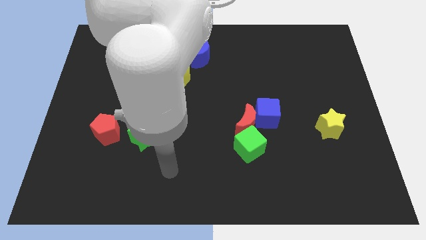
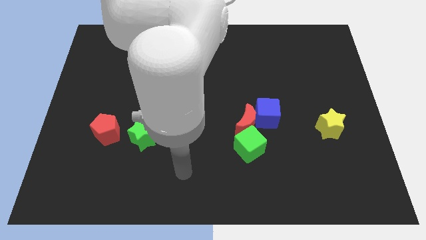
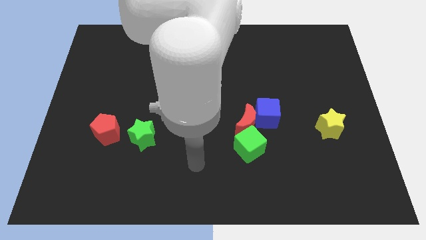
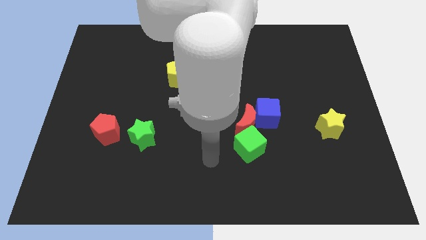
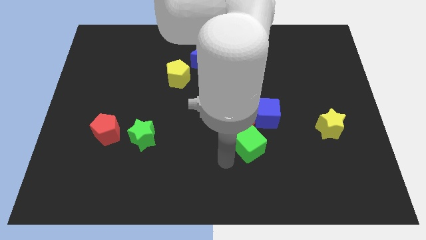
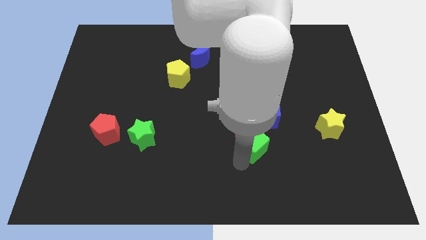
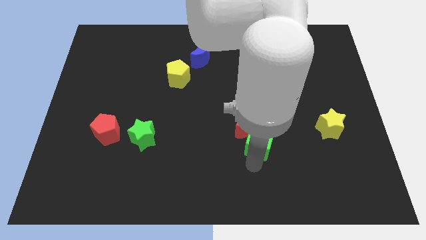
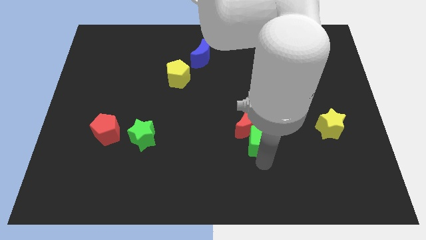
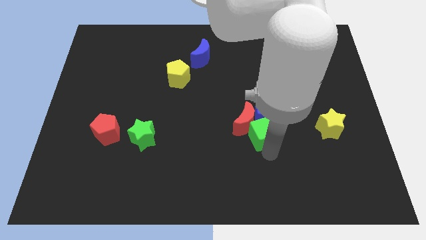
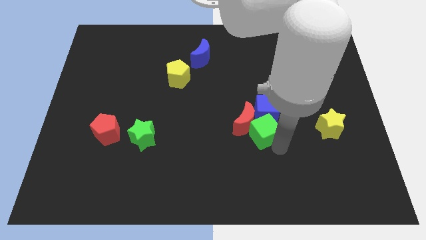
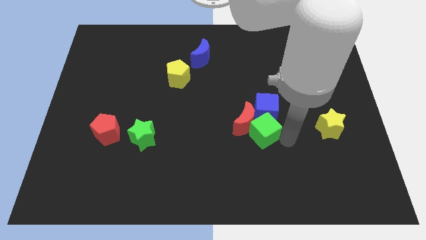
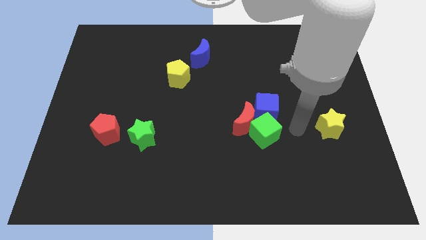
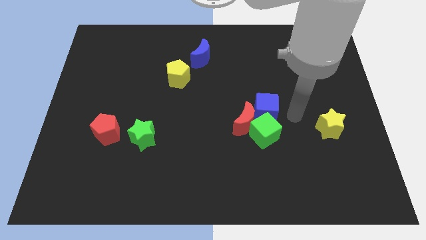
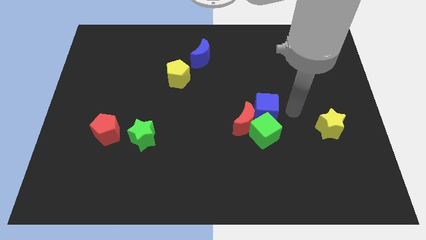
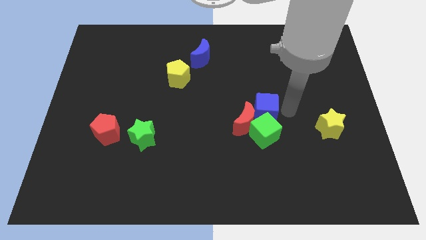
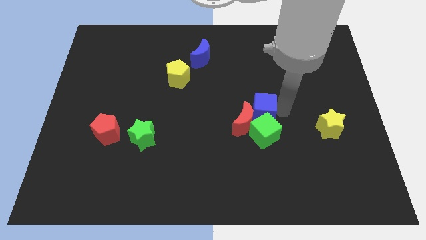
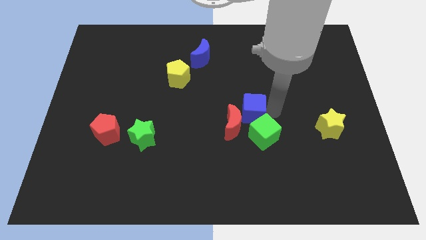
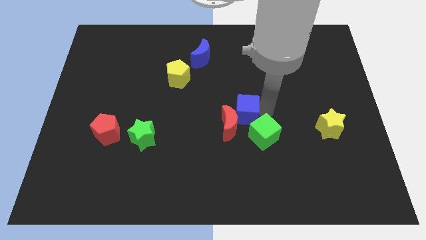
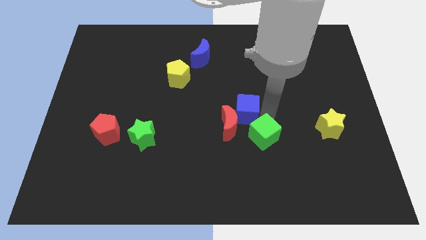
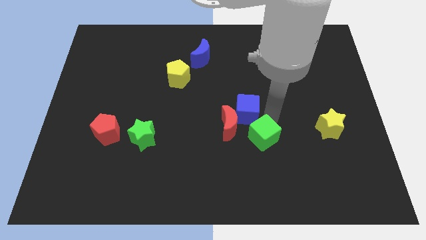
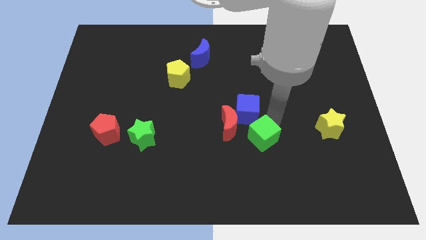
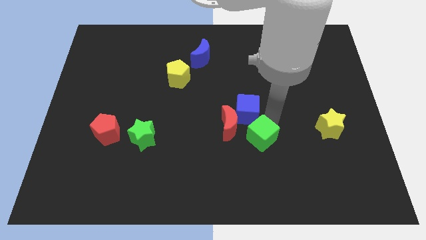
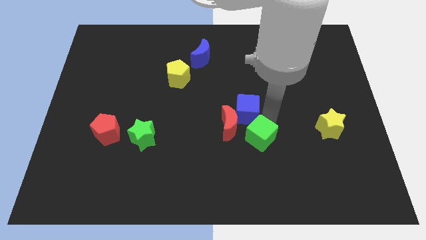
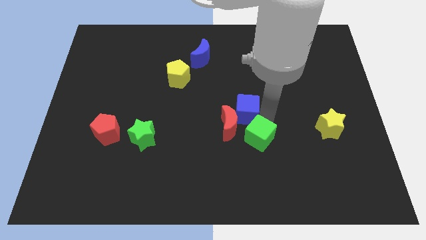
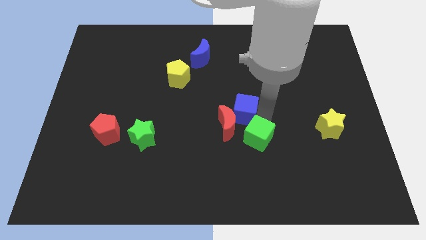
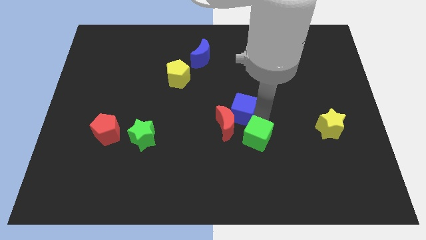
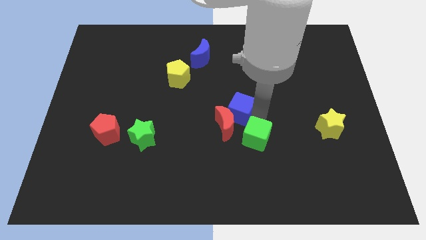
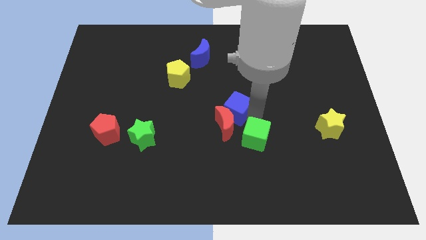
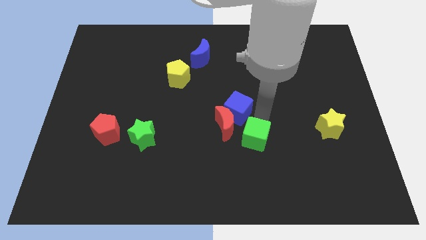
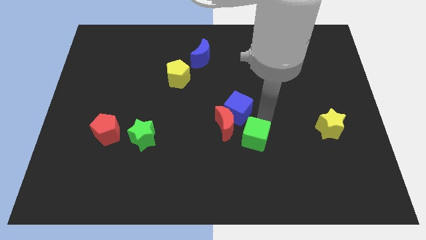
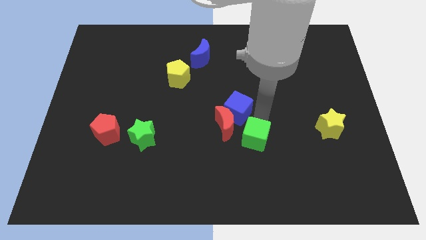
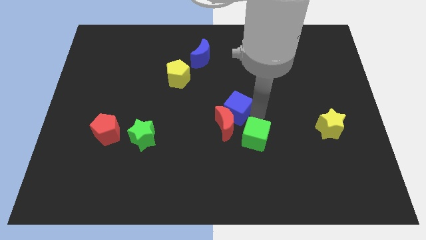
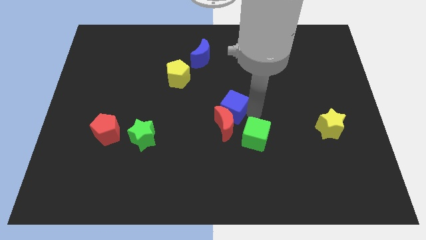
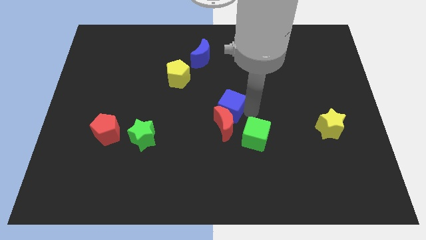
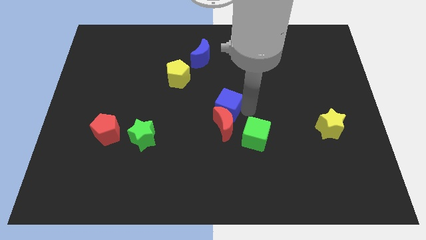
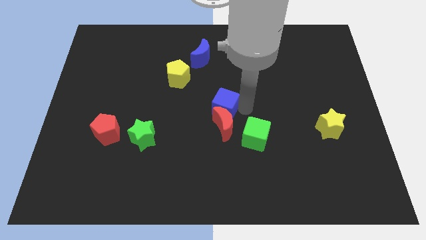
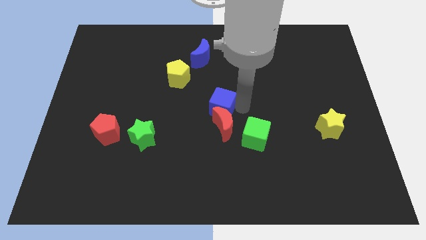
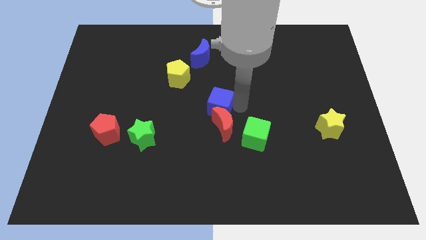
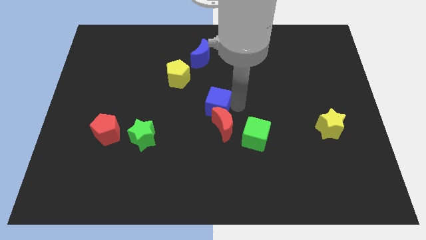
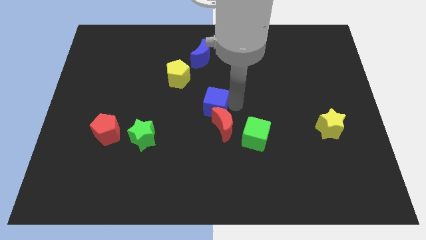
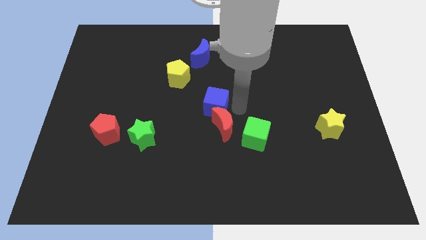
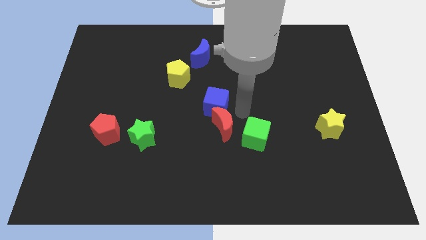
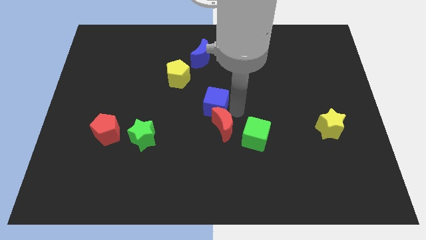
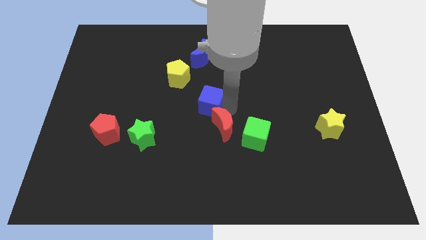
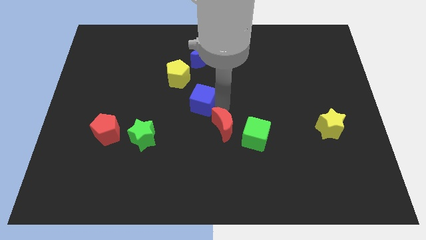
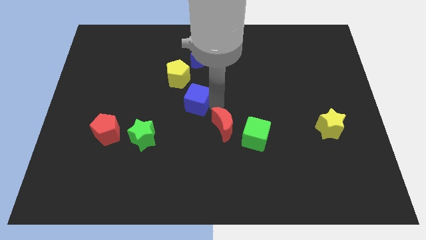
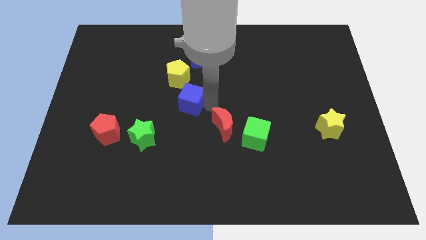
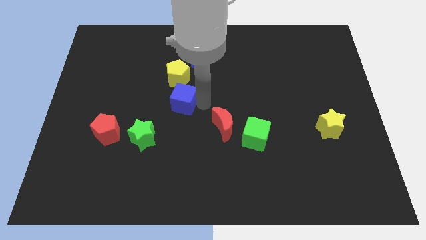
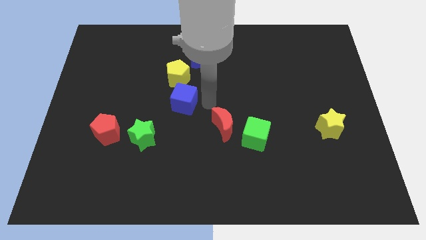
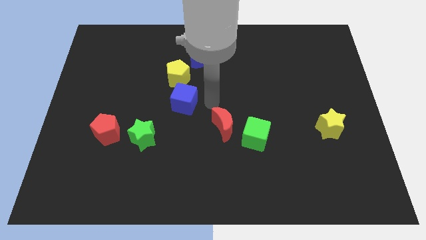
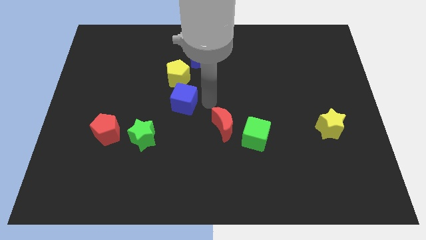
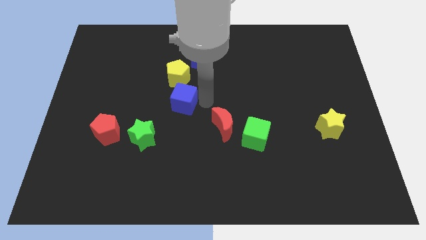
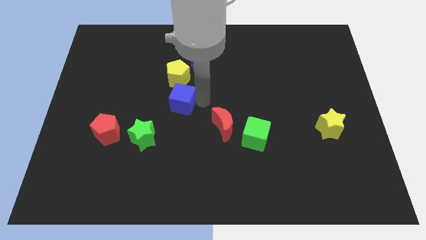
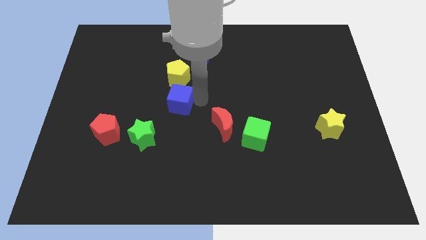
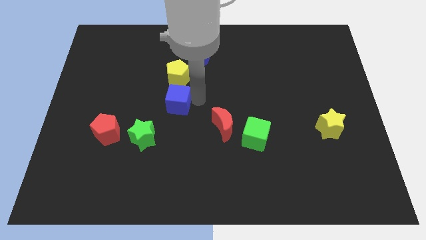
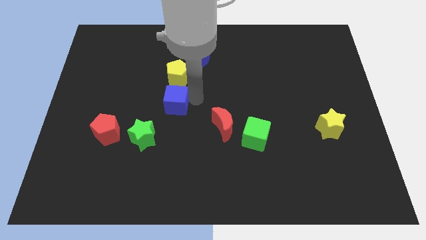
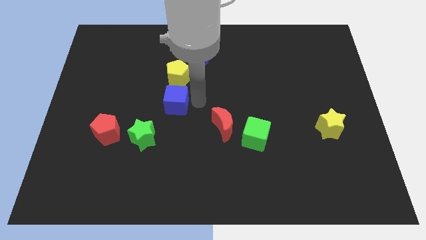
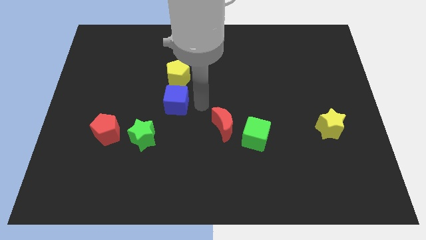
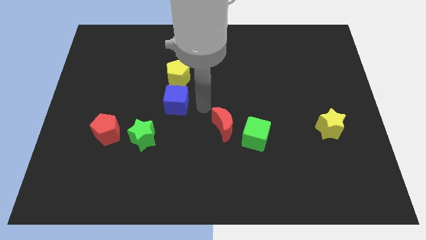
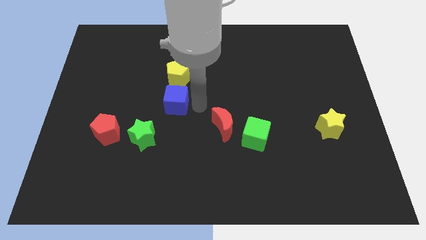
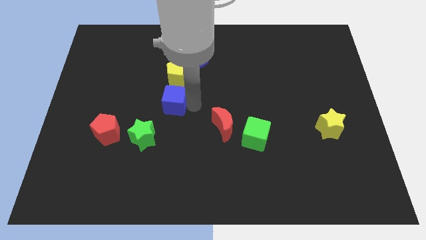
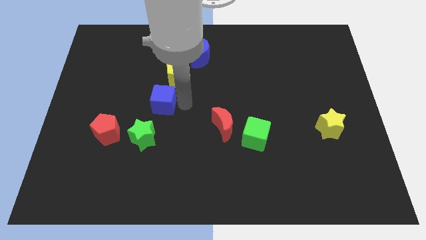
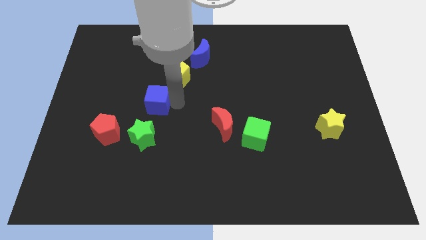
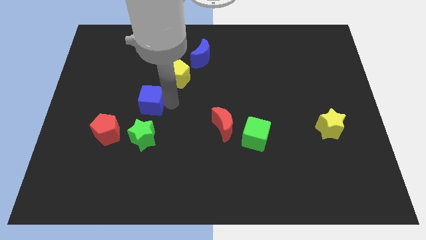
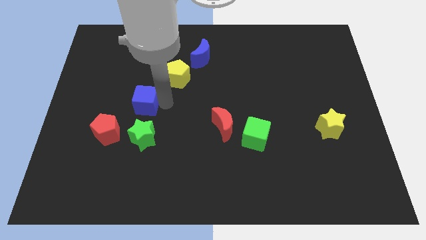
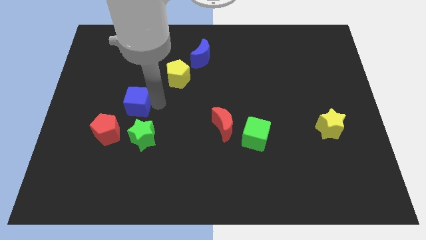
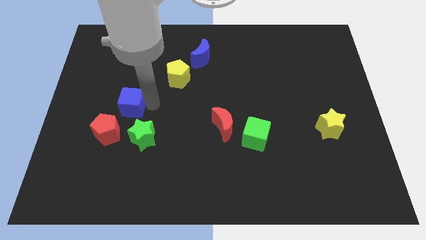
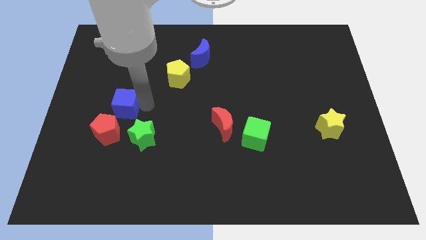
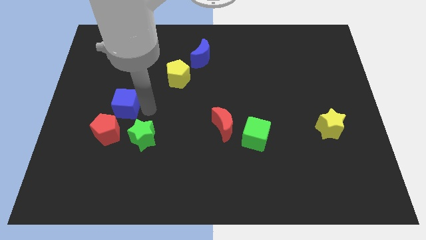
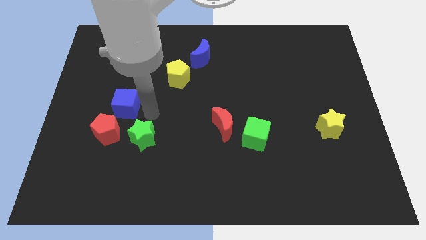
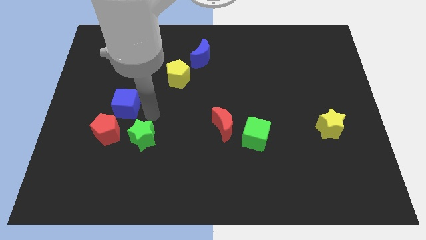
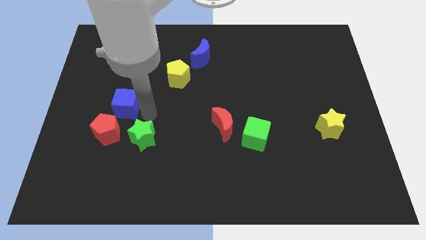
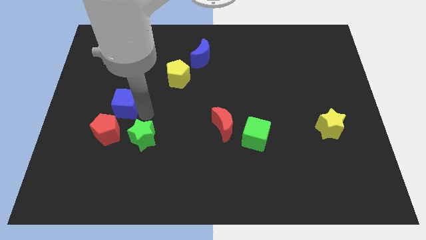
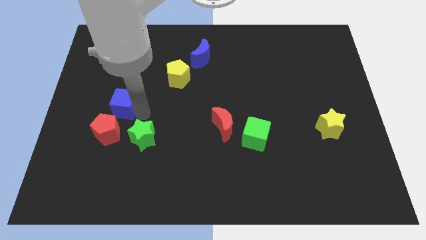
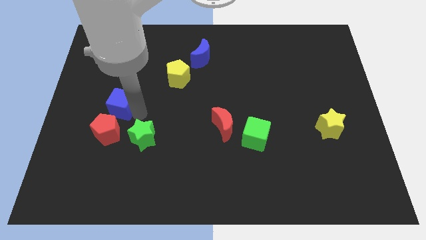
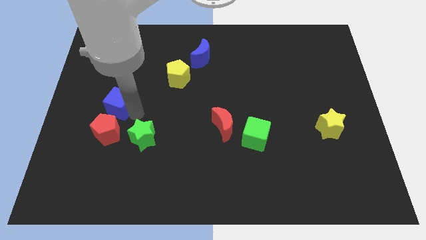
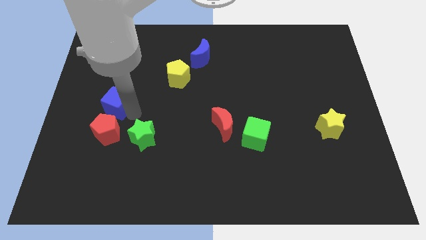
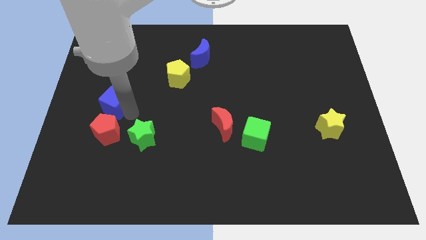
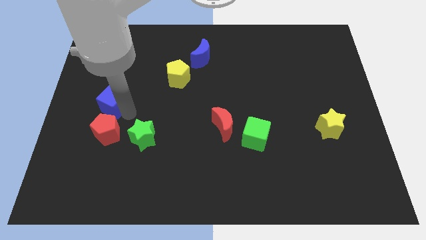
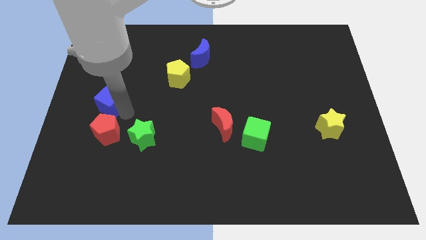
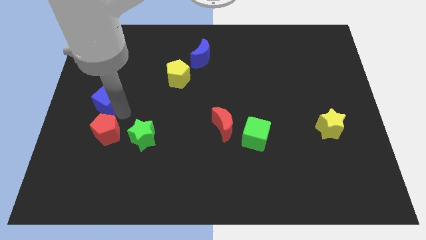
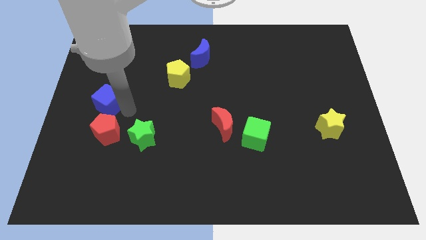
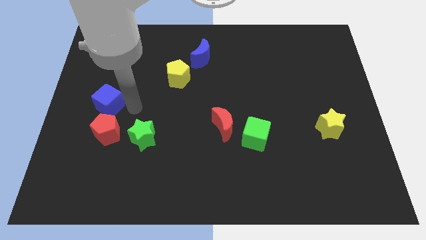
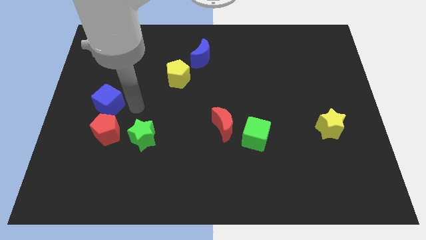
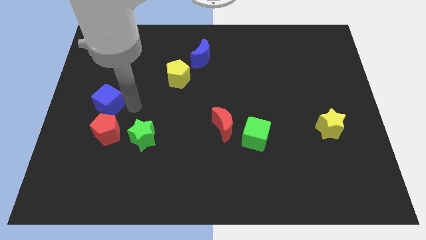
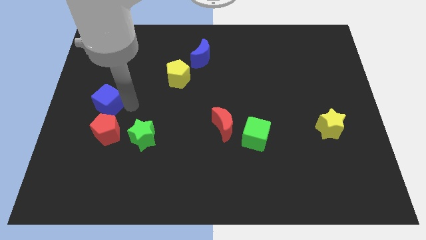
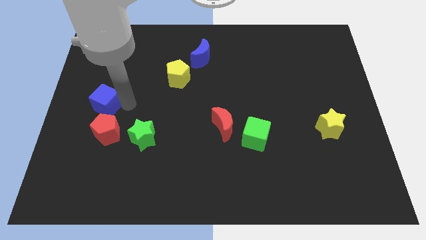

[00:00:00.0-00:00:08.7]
push the blue cube to the center left

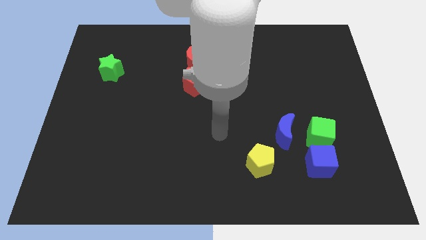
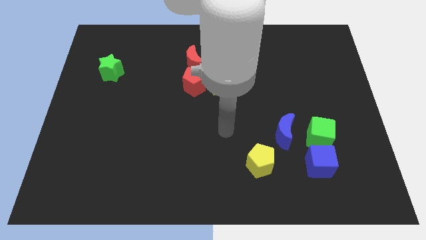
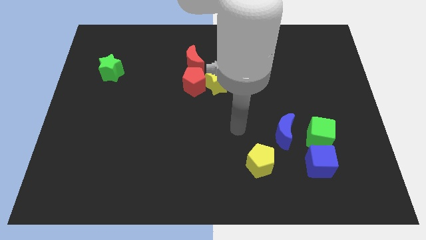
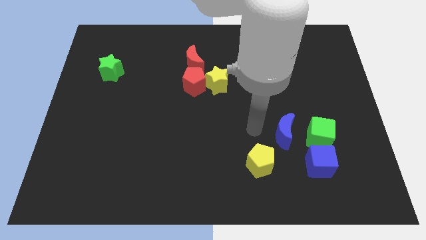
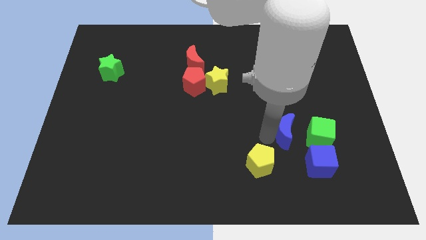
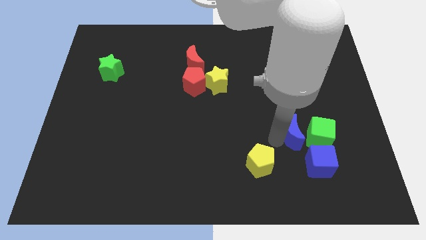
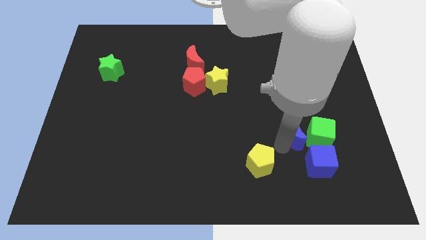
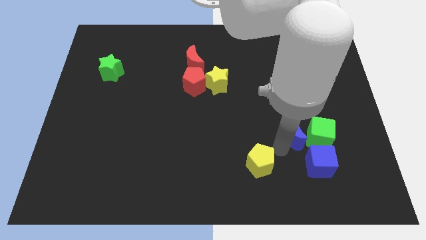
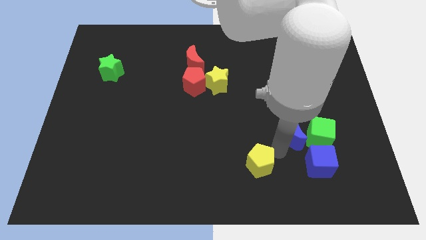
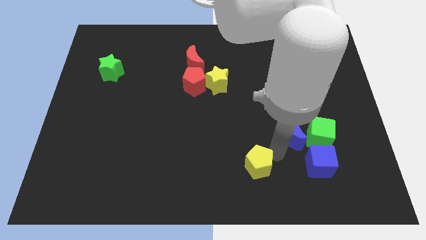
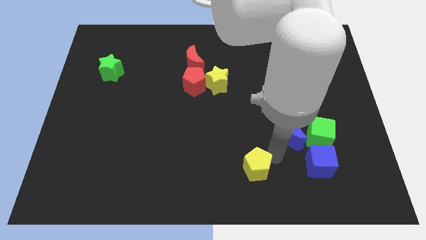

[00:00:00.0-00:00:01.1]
slide the yellow pentagon to the bottom side
